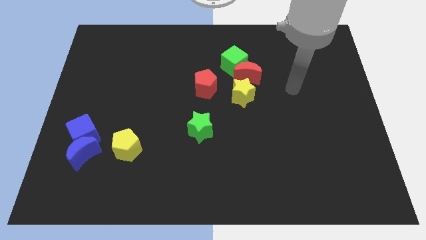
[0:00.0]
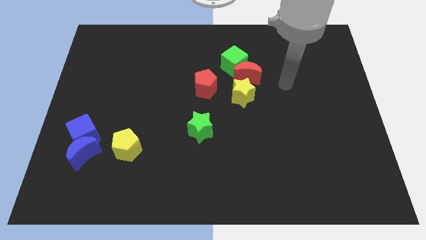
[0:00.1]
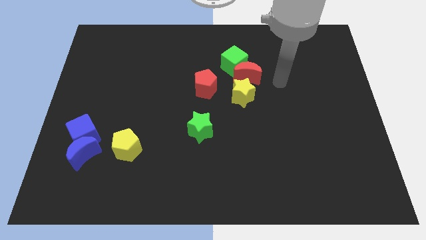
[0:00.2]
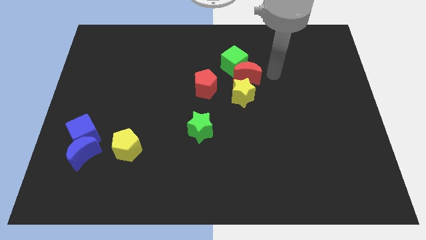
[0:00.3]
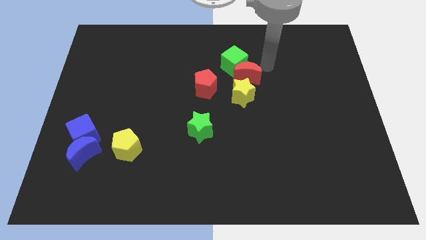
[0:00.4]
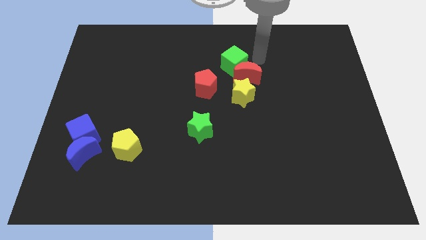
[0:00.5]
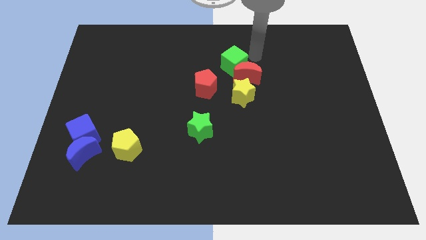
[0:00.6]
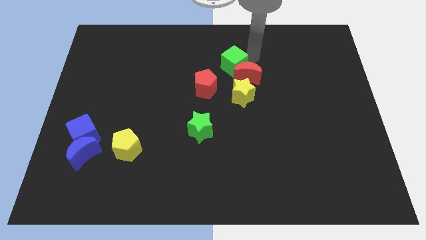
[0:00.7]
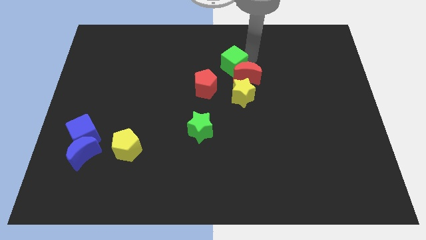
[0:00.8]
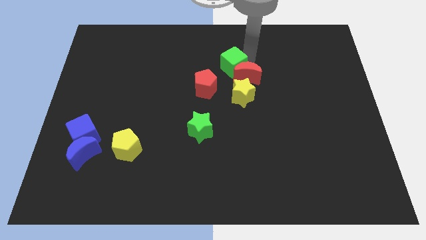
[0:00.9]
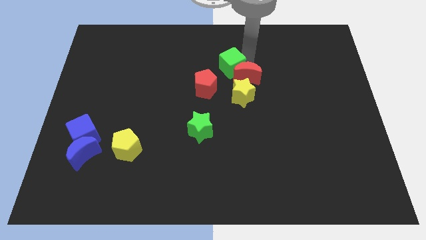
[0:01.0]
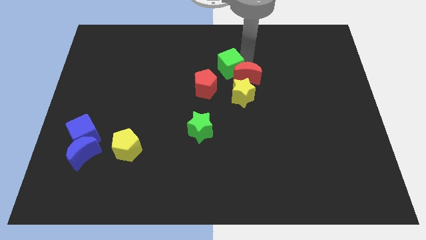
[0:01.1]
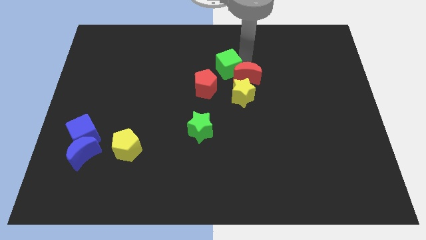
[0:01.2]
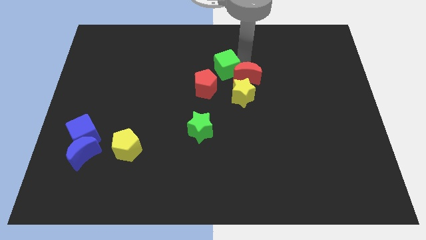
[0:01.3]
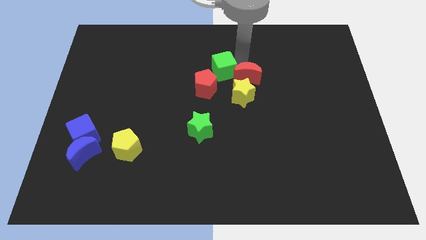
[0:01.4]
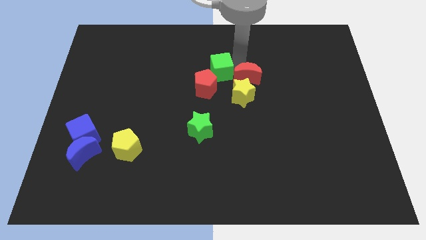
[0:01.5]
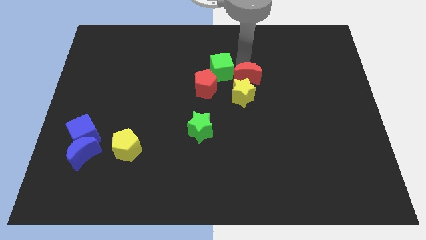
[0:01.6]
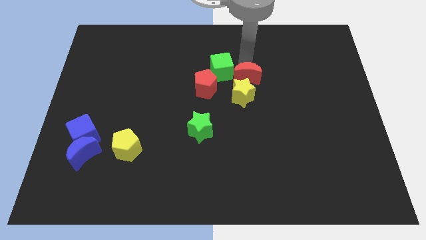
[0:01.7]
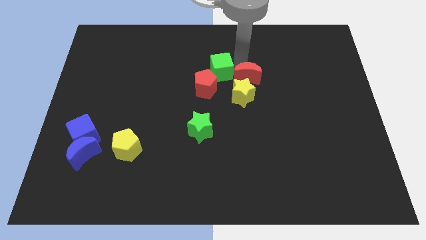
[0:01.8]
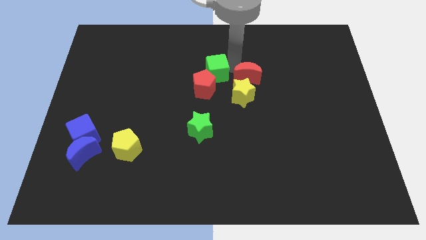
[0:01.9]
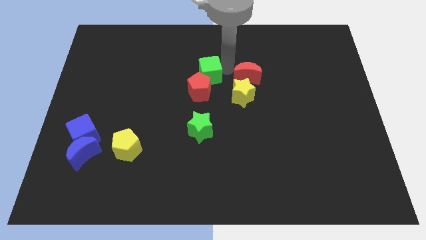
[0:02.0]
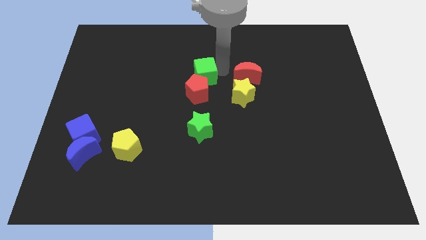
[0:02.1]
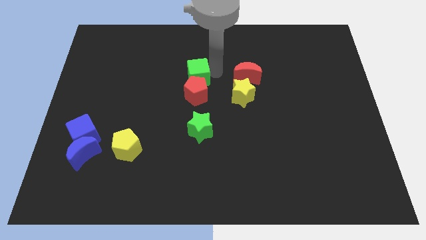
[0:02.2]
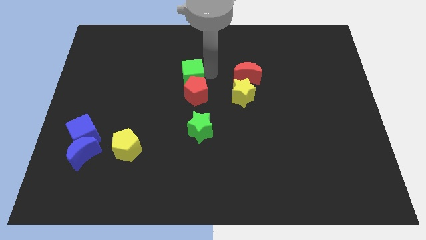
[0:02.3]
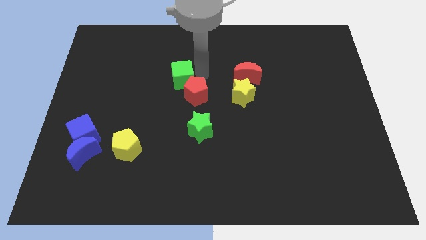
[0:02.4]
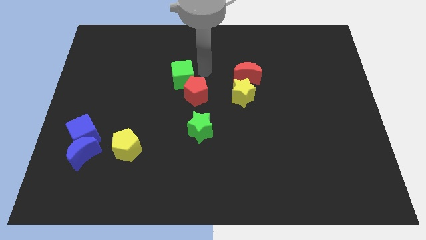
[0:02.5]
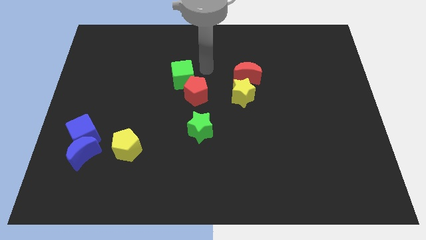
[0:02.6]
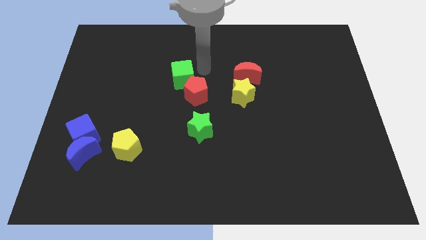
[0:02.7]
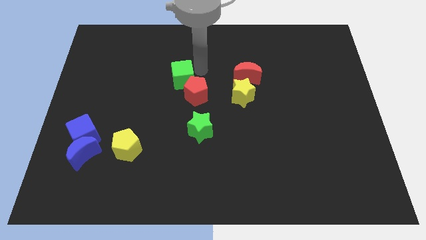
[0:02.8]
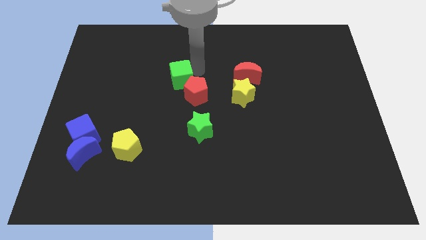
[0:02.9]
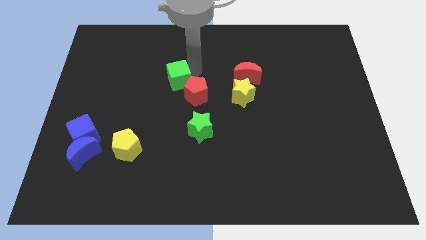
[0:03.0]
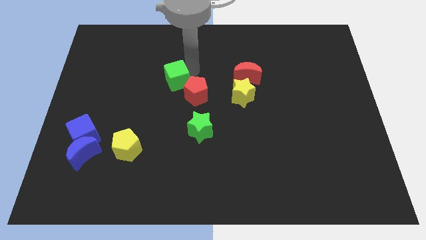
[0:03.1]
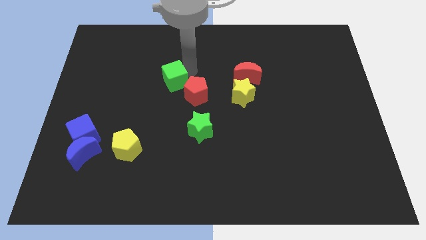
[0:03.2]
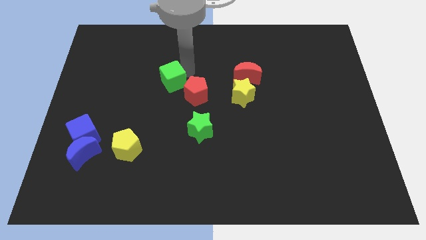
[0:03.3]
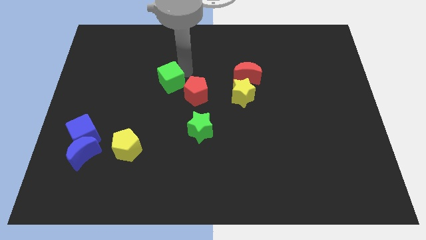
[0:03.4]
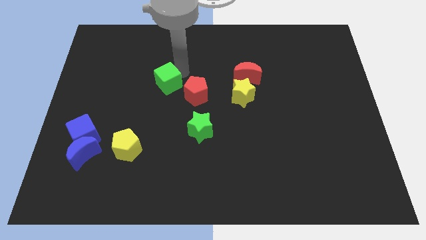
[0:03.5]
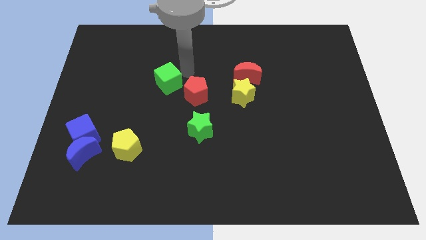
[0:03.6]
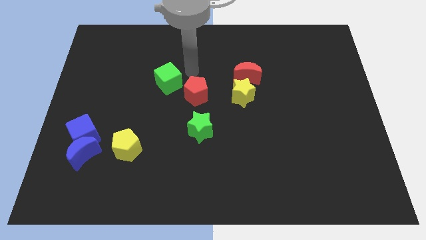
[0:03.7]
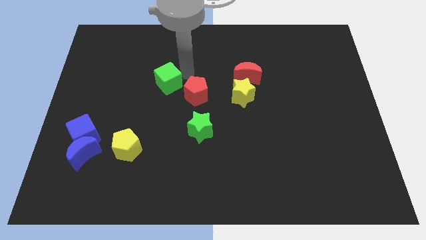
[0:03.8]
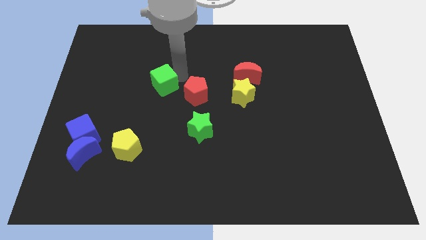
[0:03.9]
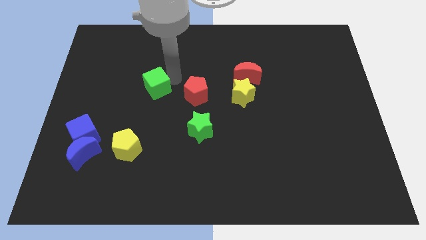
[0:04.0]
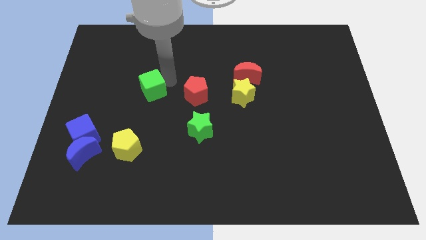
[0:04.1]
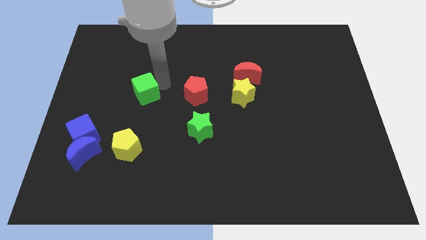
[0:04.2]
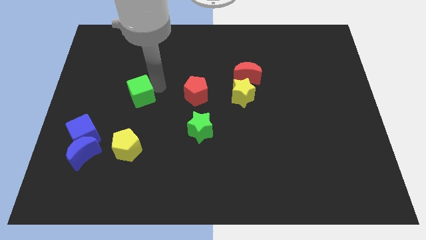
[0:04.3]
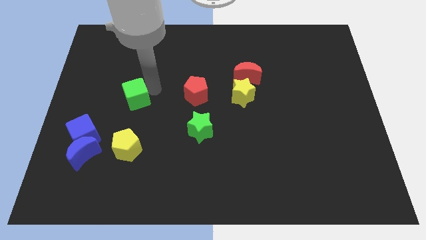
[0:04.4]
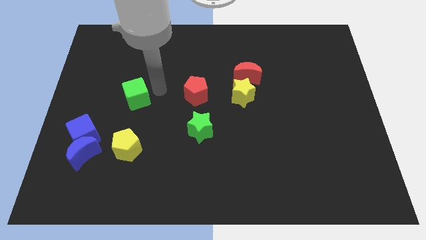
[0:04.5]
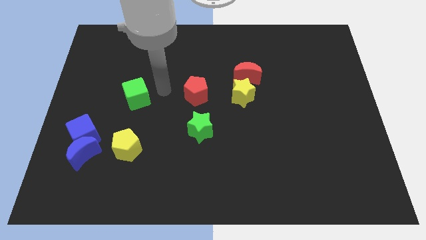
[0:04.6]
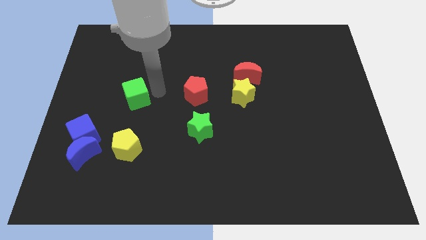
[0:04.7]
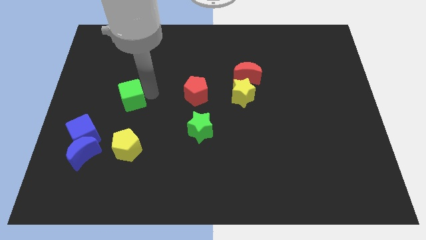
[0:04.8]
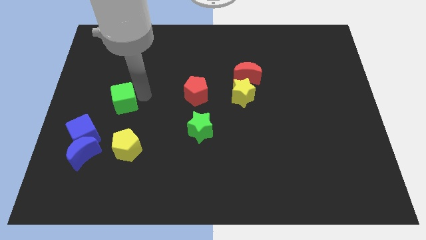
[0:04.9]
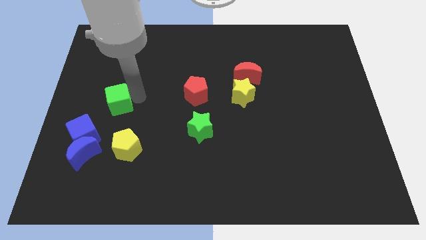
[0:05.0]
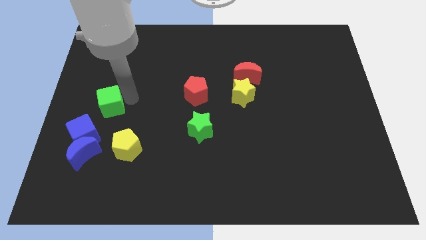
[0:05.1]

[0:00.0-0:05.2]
move the green cube above the blue moon

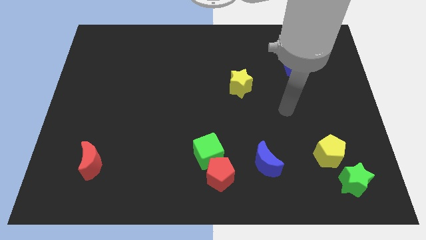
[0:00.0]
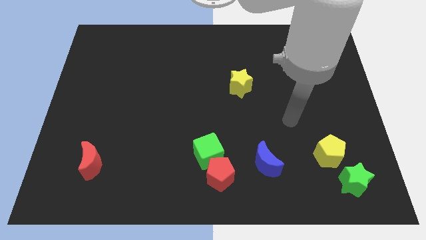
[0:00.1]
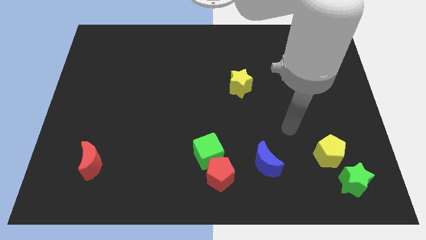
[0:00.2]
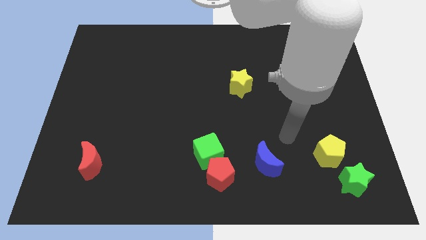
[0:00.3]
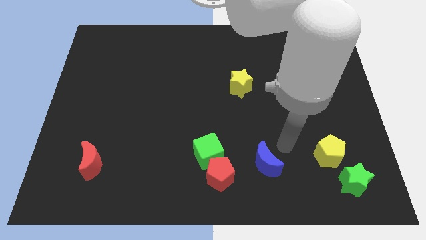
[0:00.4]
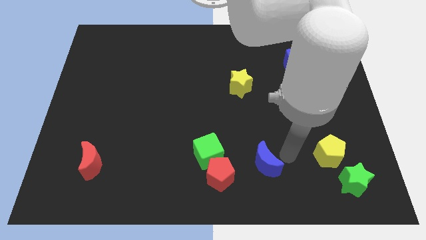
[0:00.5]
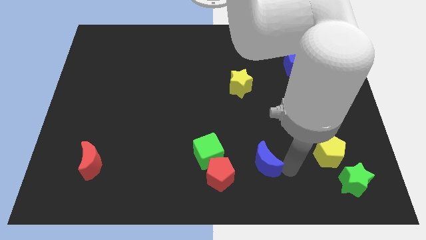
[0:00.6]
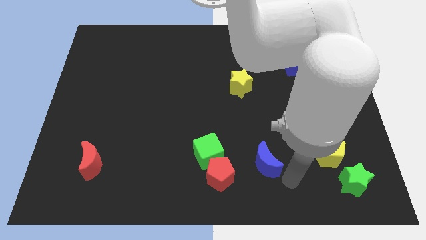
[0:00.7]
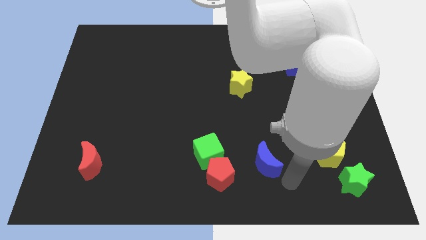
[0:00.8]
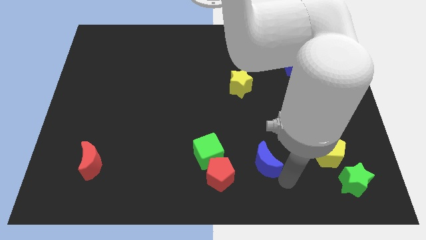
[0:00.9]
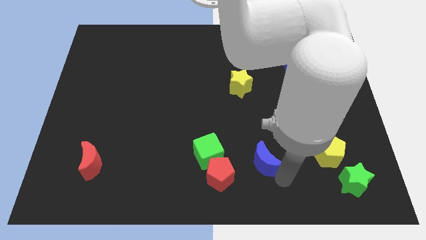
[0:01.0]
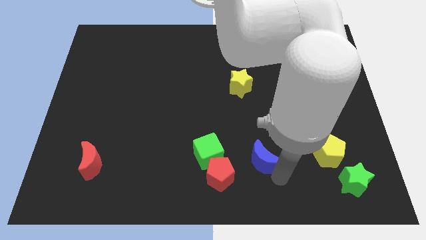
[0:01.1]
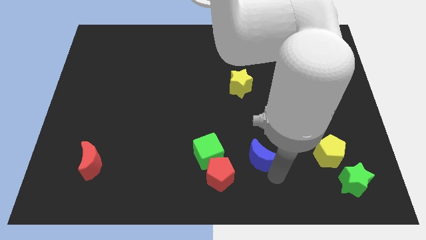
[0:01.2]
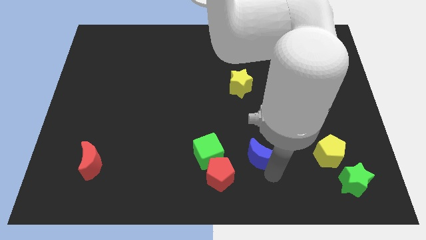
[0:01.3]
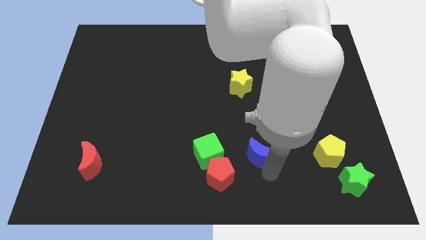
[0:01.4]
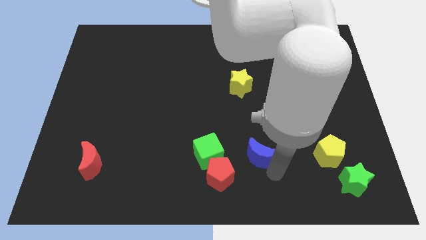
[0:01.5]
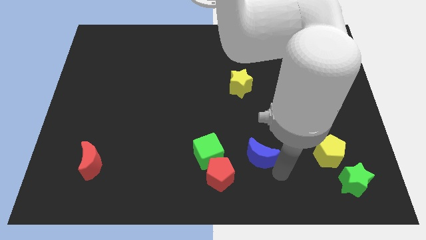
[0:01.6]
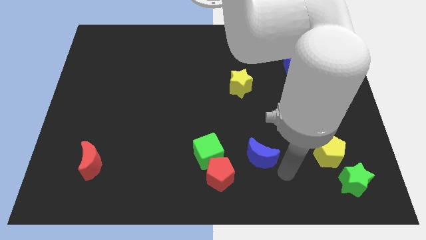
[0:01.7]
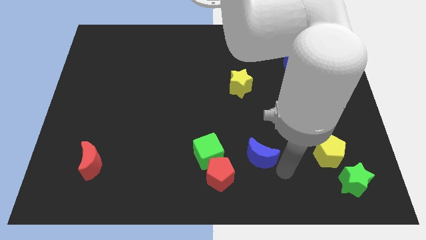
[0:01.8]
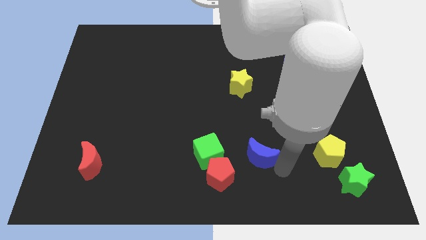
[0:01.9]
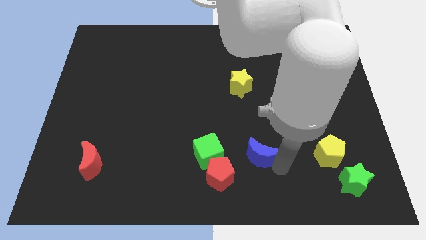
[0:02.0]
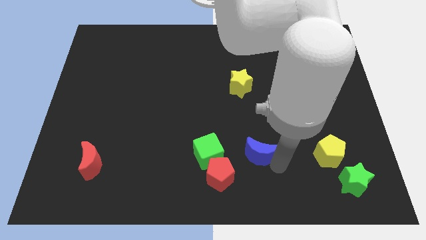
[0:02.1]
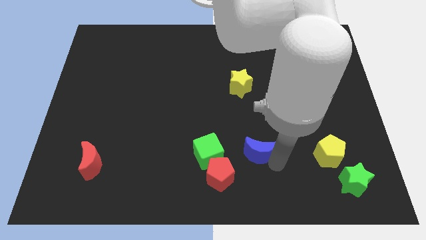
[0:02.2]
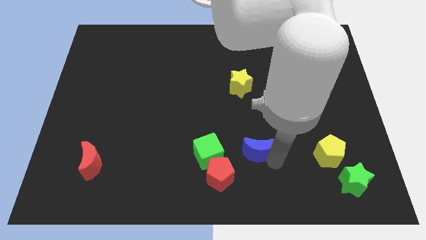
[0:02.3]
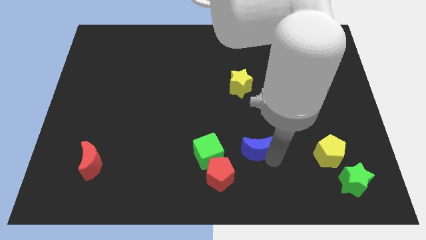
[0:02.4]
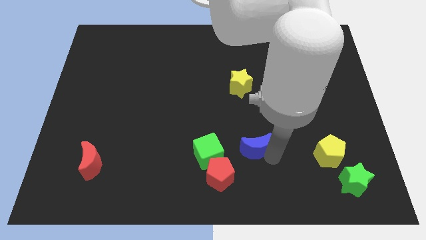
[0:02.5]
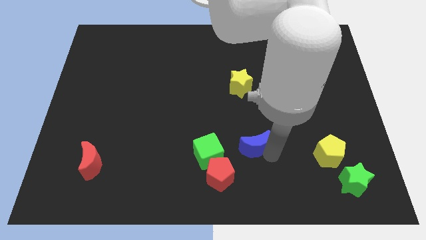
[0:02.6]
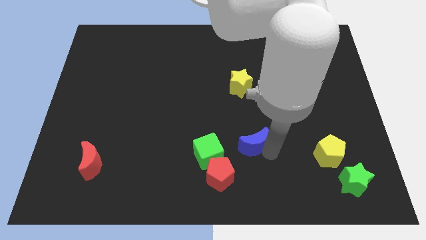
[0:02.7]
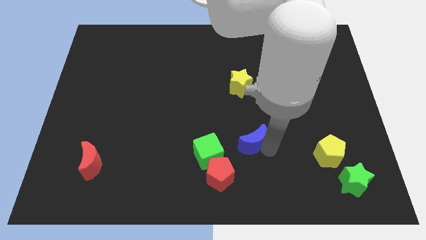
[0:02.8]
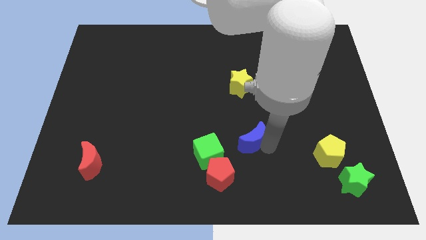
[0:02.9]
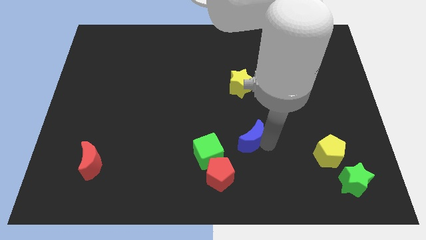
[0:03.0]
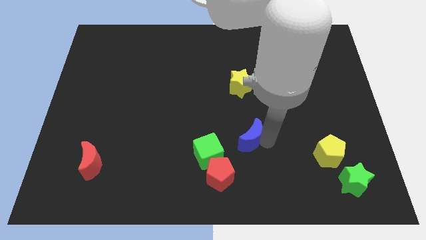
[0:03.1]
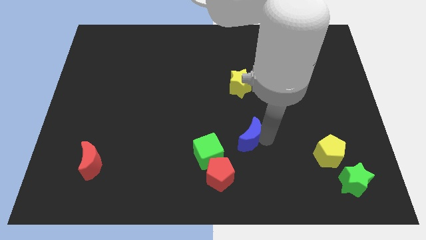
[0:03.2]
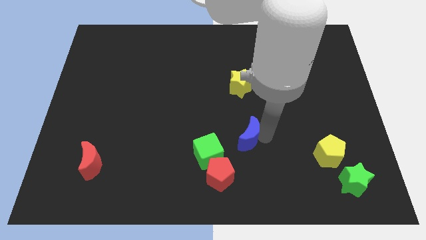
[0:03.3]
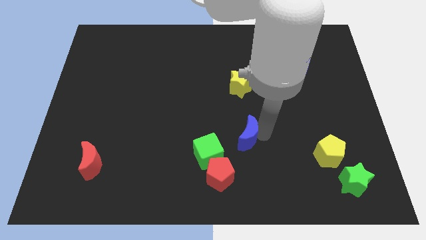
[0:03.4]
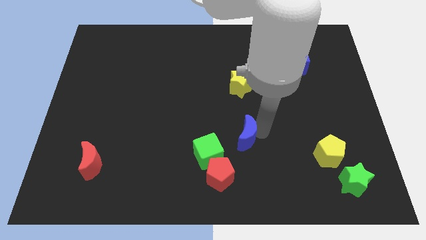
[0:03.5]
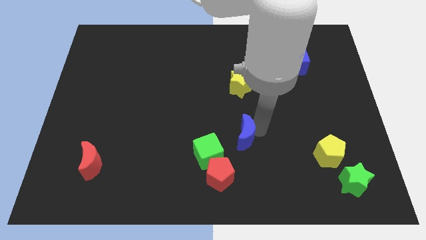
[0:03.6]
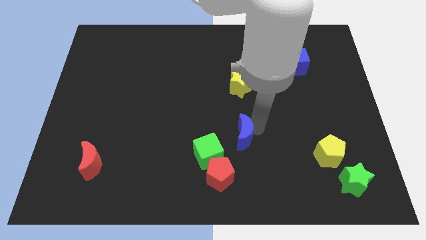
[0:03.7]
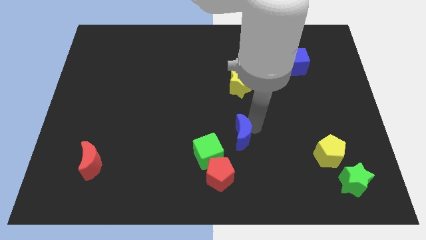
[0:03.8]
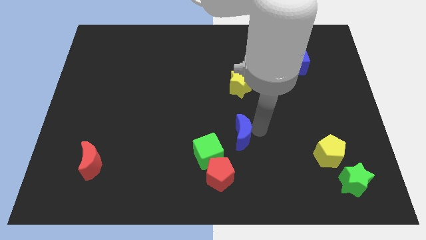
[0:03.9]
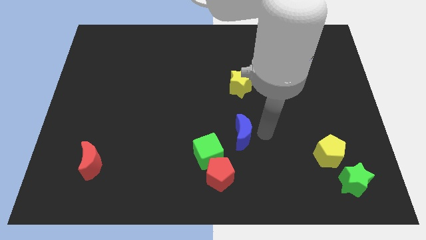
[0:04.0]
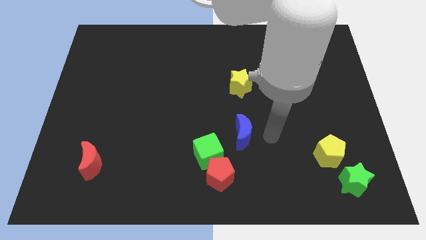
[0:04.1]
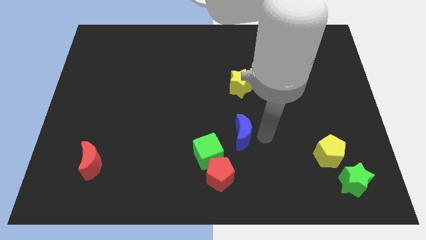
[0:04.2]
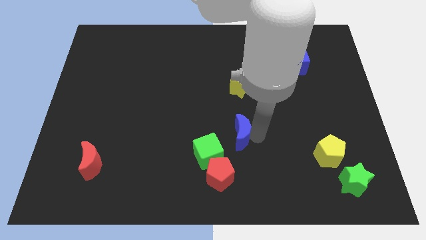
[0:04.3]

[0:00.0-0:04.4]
slide the blue moon to the top of the red pentagon
